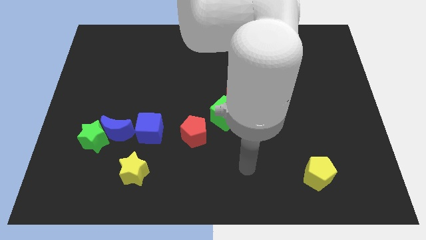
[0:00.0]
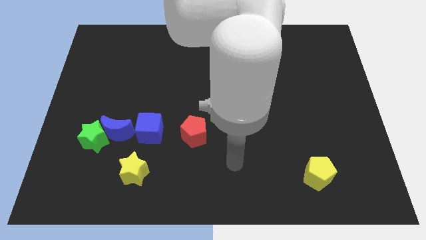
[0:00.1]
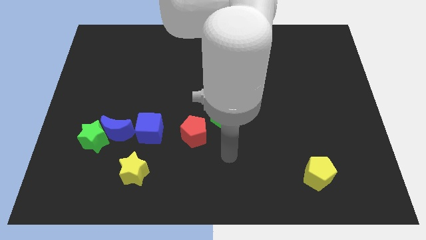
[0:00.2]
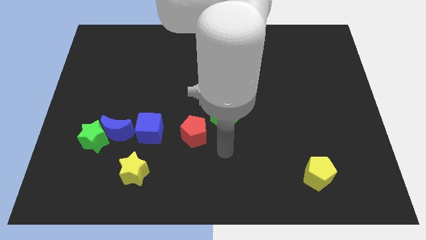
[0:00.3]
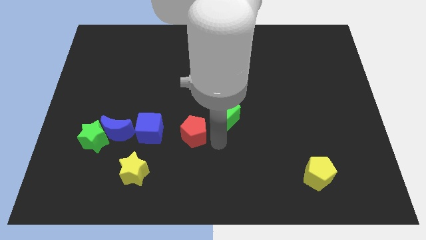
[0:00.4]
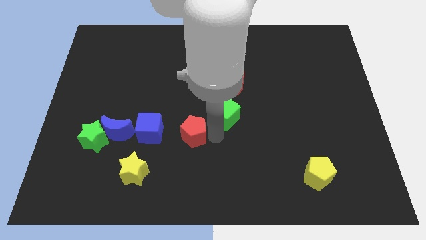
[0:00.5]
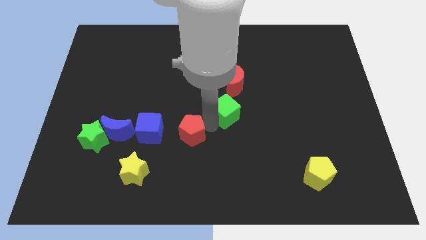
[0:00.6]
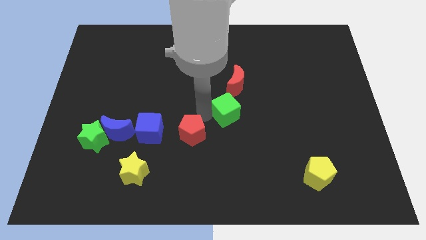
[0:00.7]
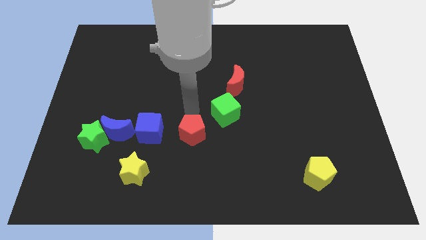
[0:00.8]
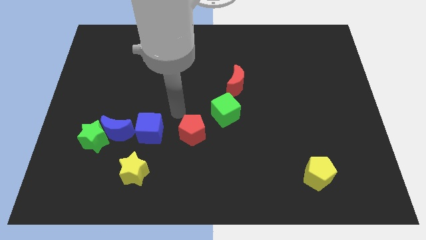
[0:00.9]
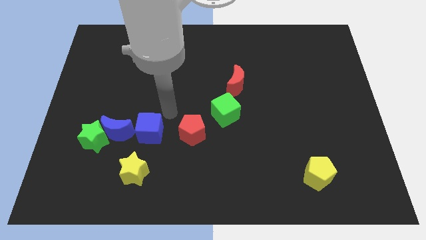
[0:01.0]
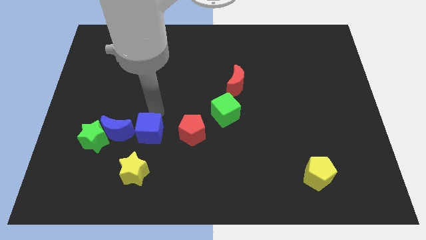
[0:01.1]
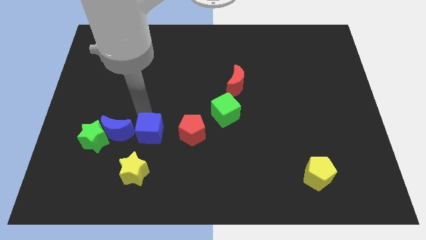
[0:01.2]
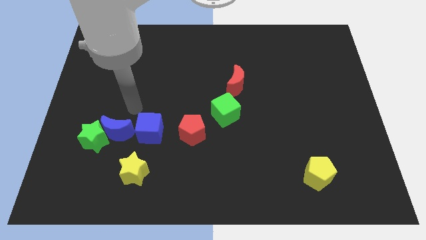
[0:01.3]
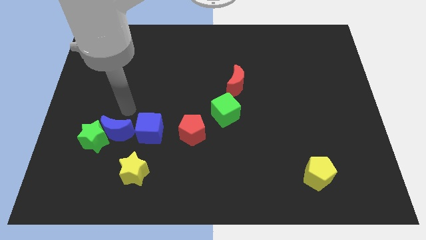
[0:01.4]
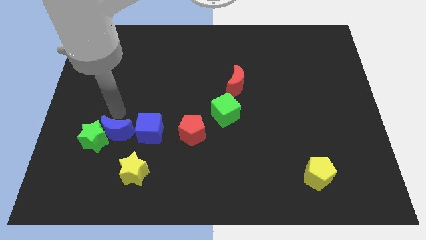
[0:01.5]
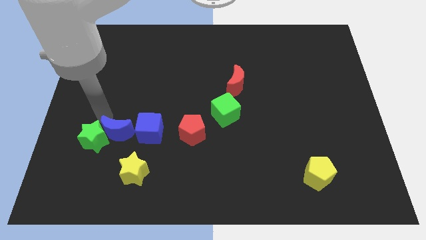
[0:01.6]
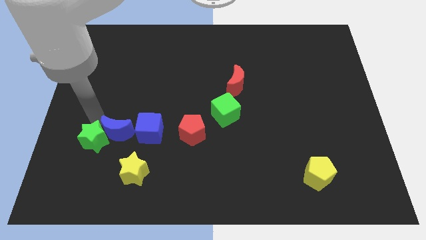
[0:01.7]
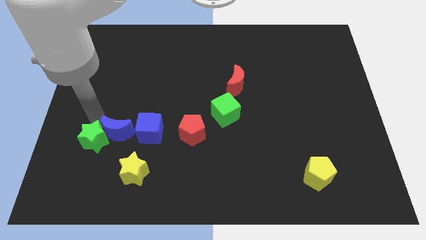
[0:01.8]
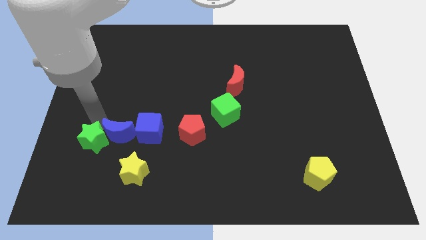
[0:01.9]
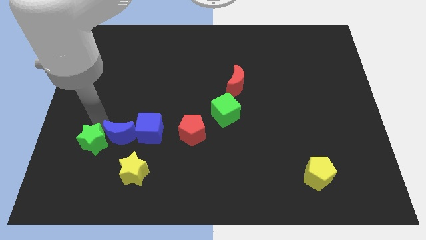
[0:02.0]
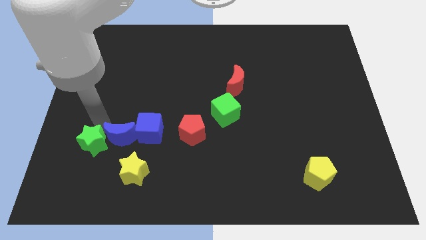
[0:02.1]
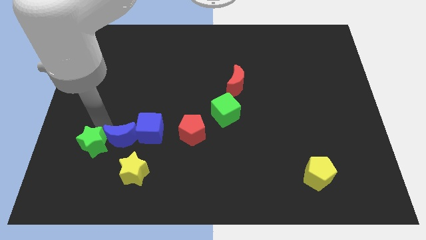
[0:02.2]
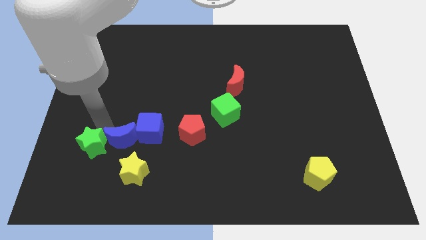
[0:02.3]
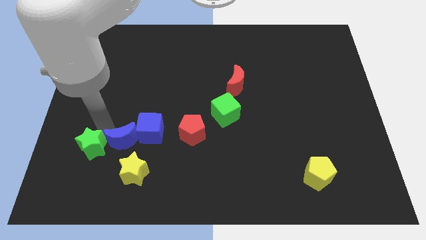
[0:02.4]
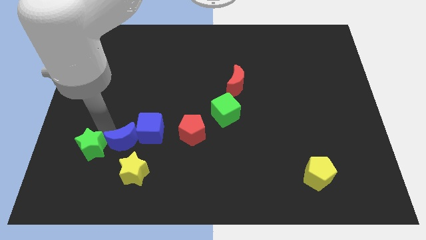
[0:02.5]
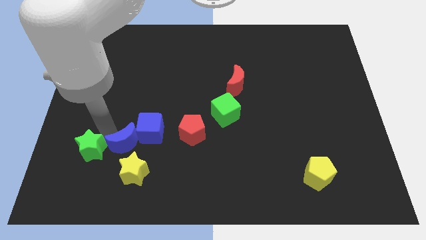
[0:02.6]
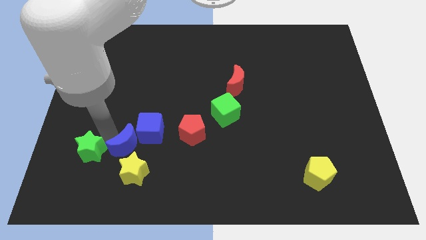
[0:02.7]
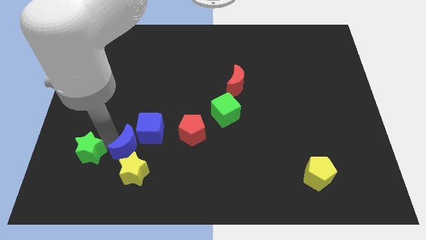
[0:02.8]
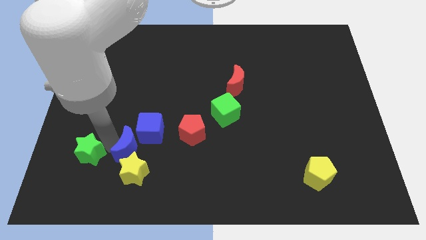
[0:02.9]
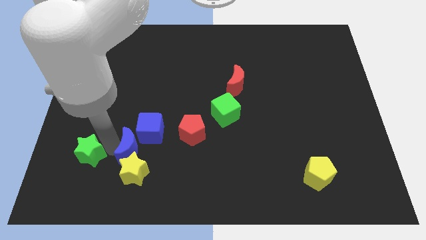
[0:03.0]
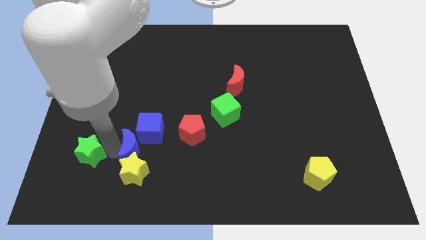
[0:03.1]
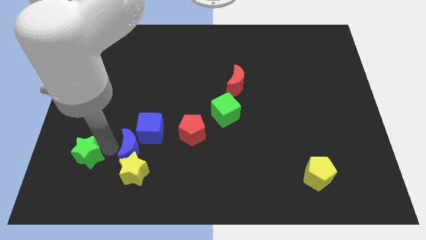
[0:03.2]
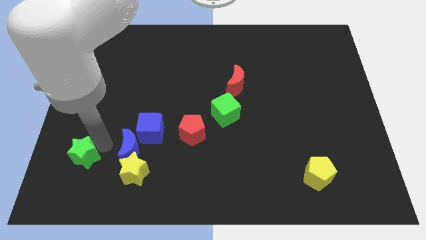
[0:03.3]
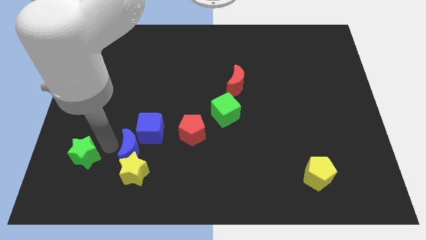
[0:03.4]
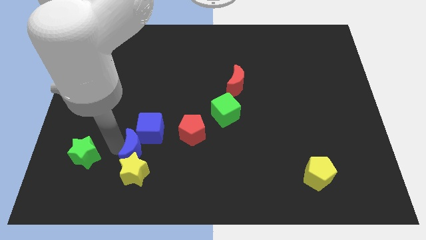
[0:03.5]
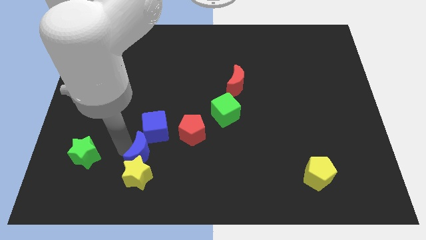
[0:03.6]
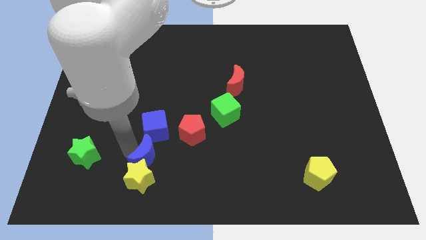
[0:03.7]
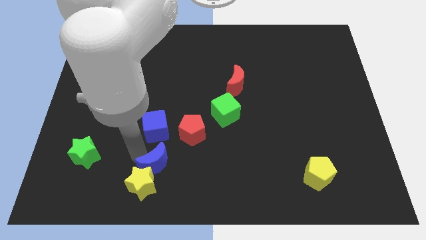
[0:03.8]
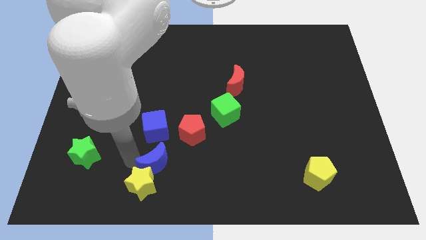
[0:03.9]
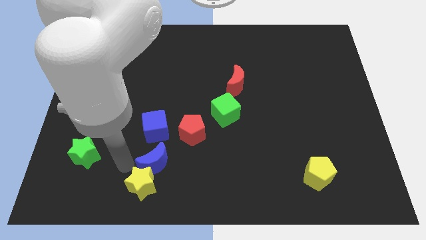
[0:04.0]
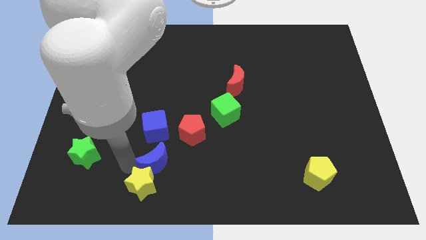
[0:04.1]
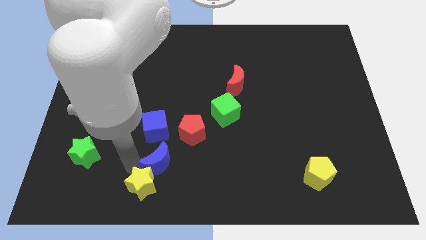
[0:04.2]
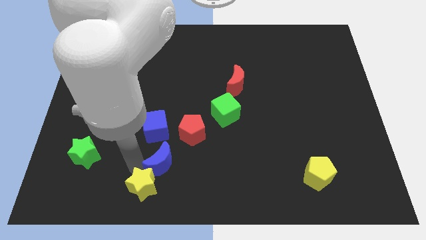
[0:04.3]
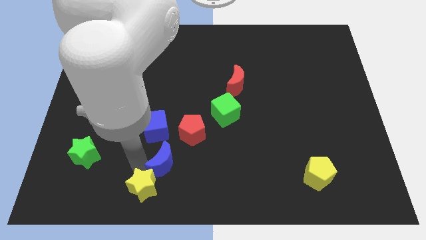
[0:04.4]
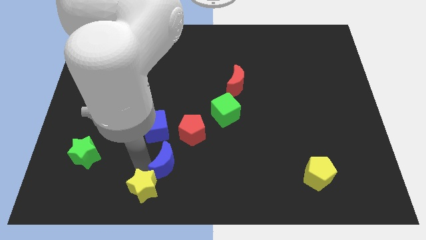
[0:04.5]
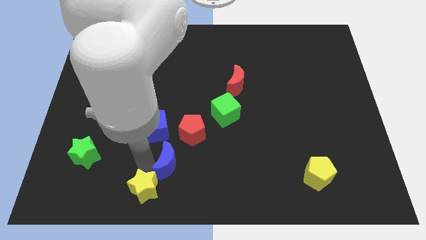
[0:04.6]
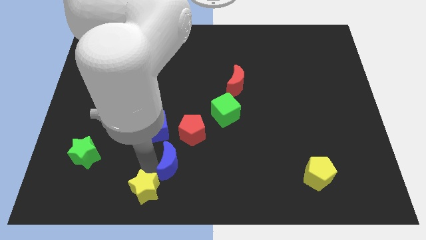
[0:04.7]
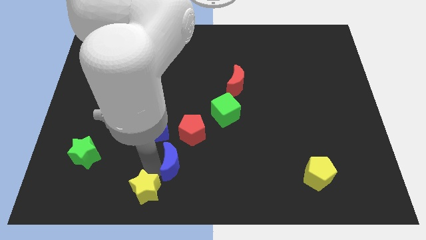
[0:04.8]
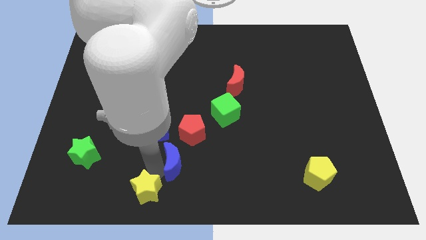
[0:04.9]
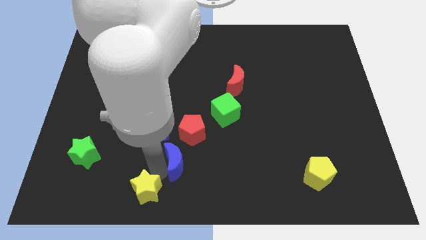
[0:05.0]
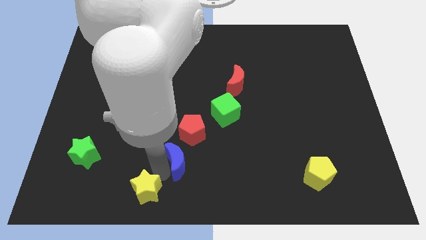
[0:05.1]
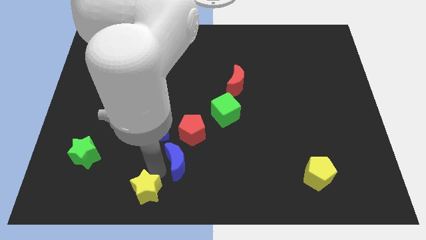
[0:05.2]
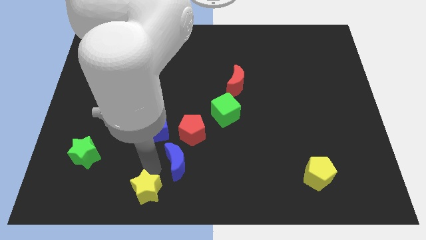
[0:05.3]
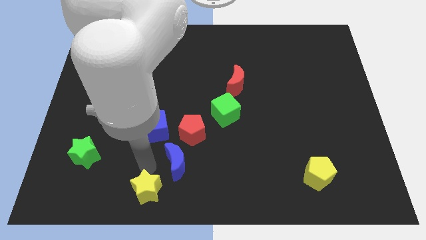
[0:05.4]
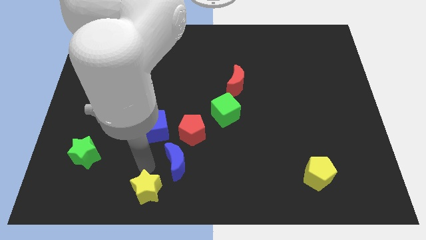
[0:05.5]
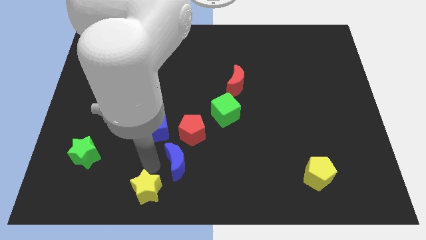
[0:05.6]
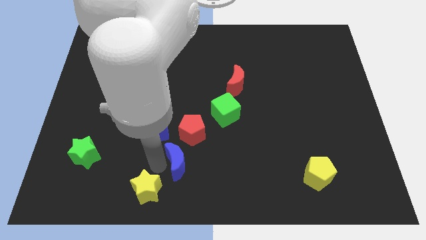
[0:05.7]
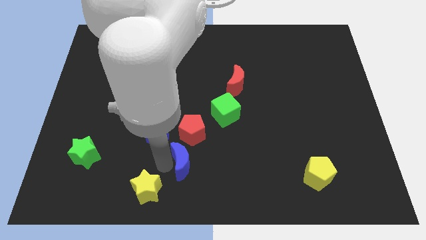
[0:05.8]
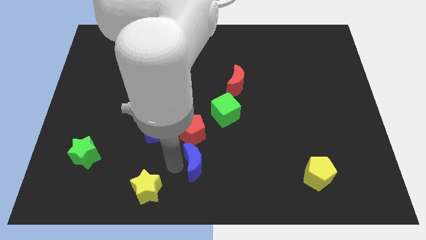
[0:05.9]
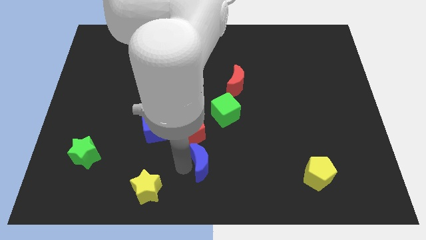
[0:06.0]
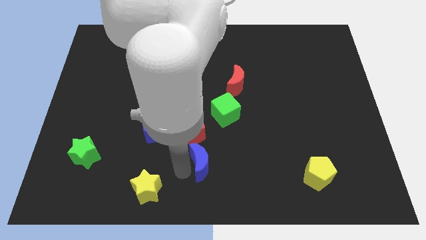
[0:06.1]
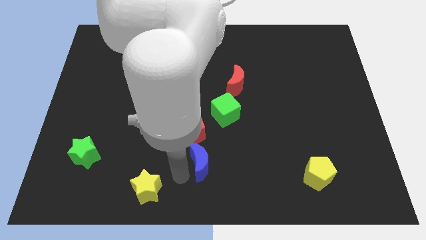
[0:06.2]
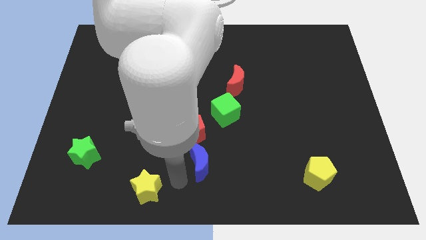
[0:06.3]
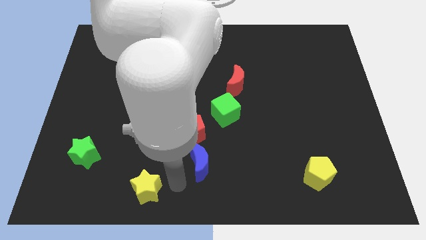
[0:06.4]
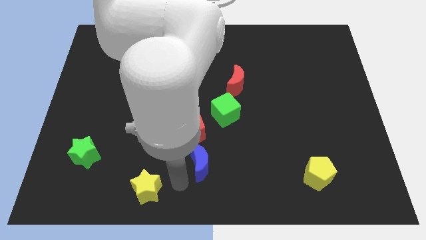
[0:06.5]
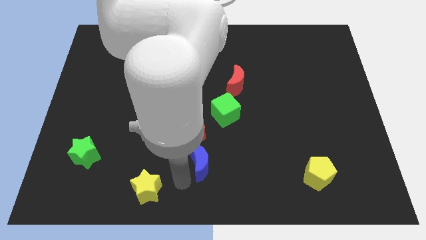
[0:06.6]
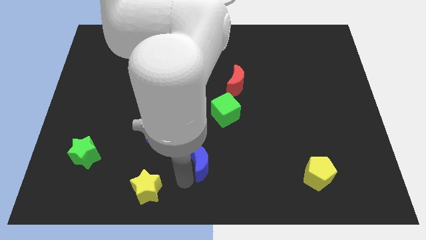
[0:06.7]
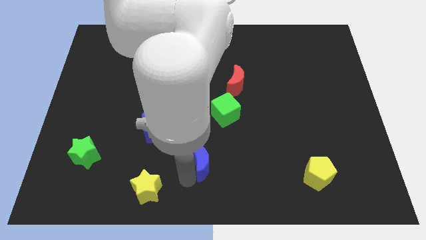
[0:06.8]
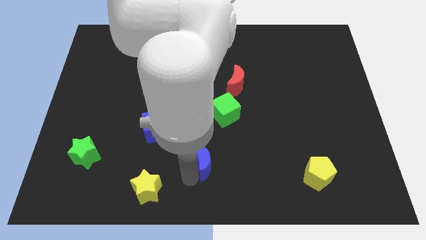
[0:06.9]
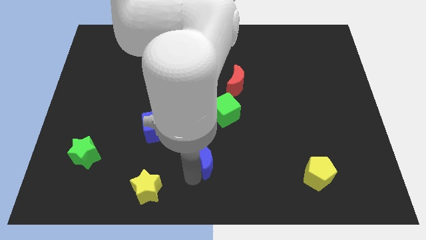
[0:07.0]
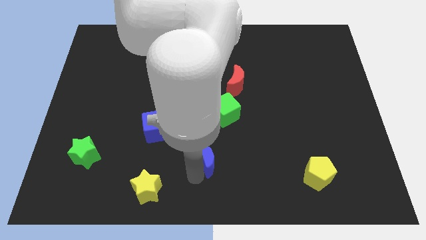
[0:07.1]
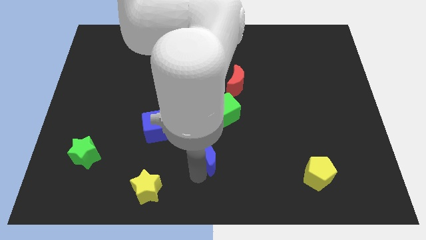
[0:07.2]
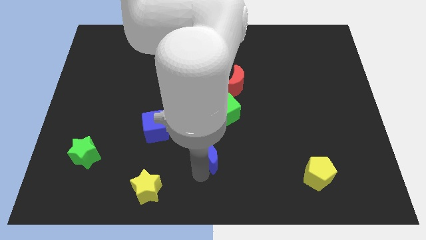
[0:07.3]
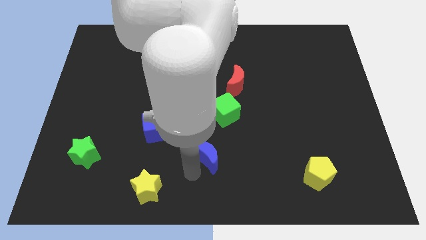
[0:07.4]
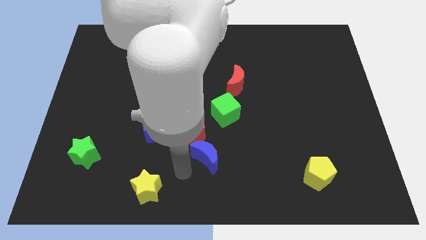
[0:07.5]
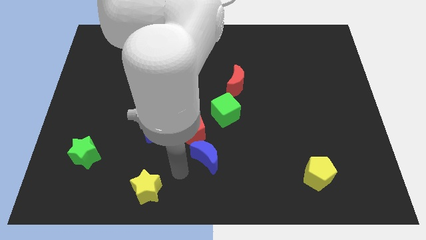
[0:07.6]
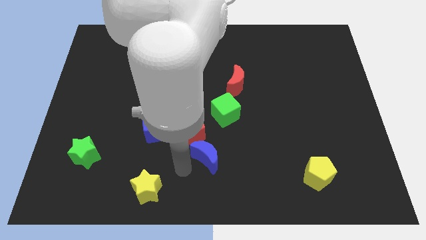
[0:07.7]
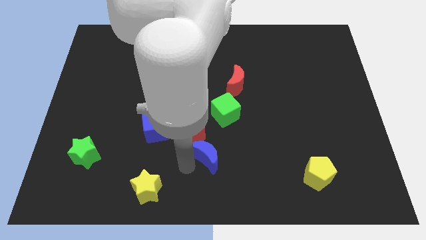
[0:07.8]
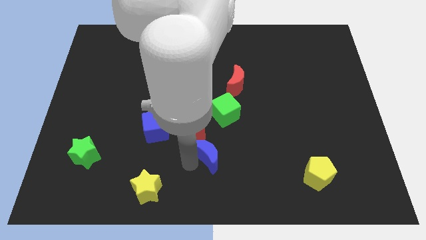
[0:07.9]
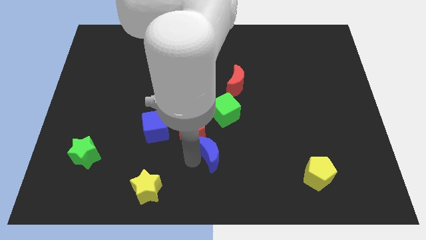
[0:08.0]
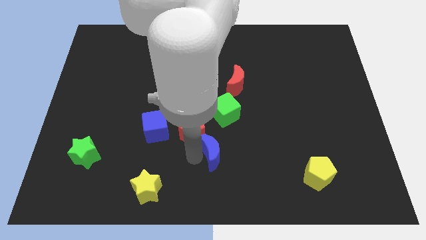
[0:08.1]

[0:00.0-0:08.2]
slide the blue moon right
